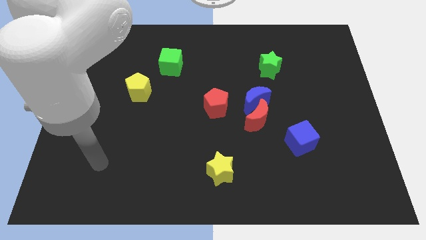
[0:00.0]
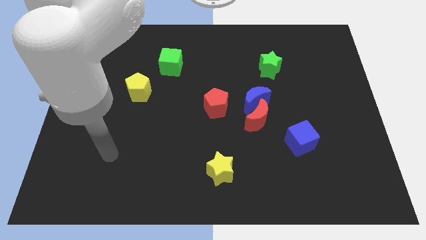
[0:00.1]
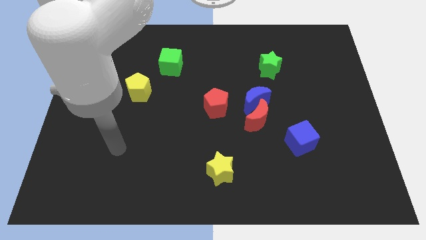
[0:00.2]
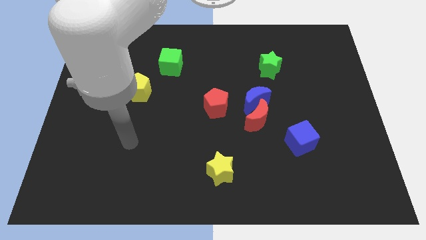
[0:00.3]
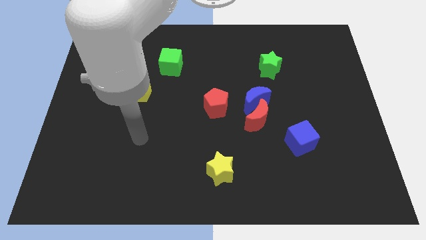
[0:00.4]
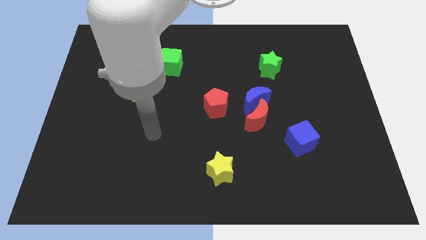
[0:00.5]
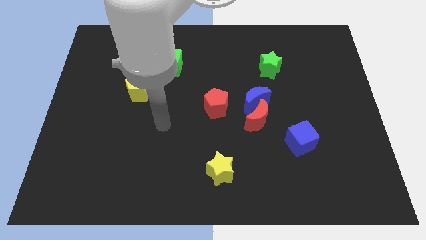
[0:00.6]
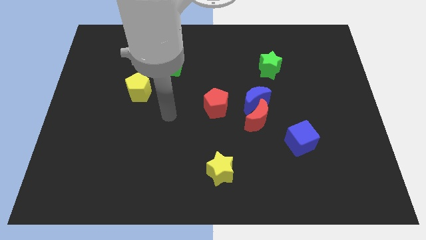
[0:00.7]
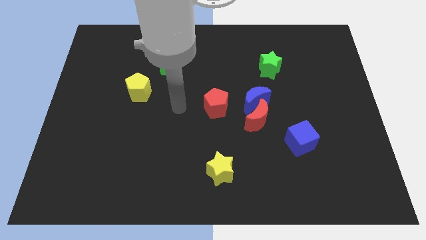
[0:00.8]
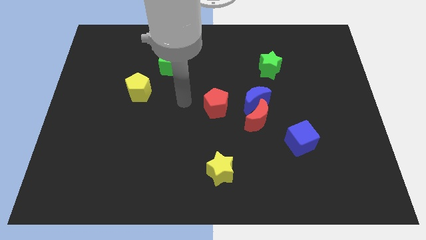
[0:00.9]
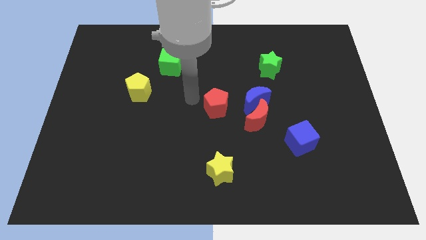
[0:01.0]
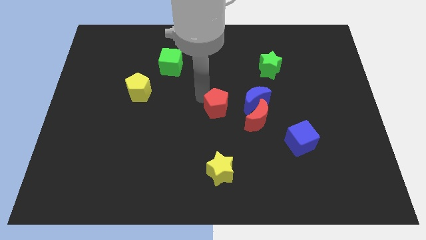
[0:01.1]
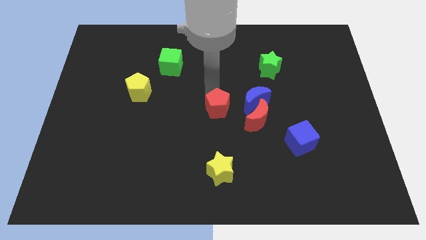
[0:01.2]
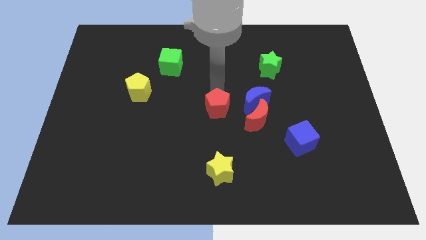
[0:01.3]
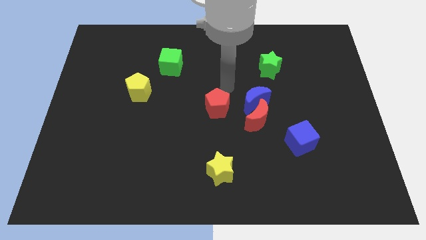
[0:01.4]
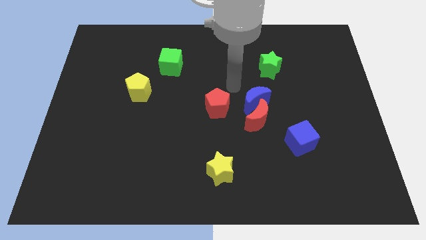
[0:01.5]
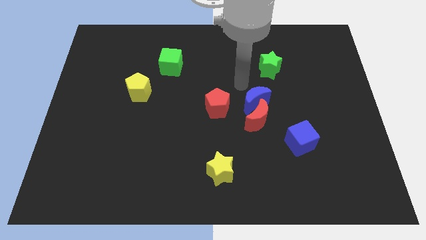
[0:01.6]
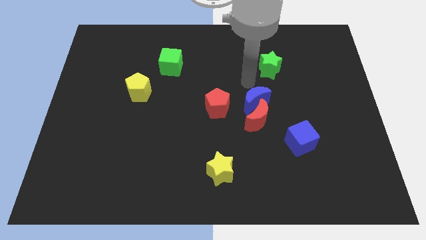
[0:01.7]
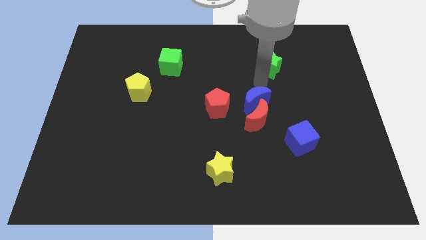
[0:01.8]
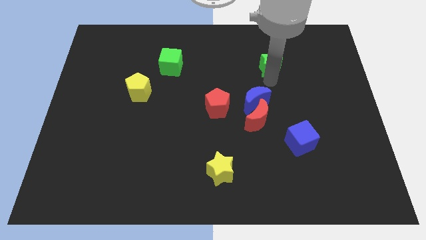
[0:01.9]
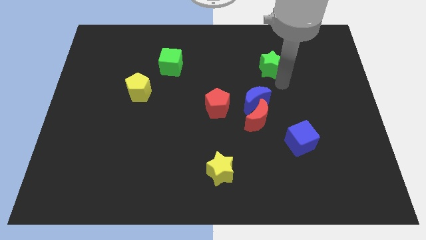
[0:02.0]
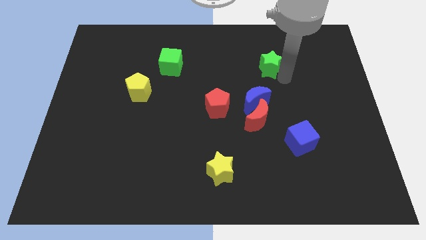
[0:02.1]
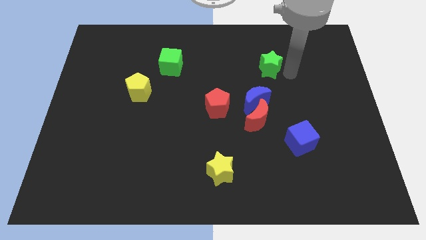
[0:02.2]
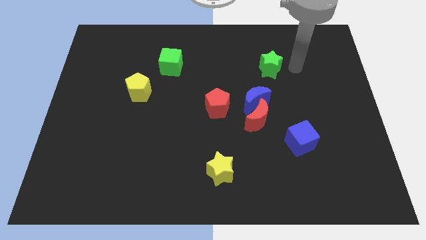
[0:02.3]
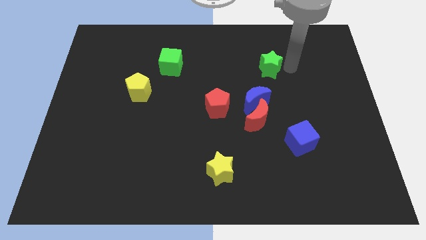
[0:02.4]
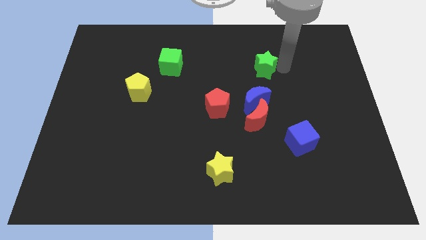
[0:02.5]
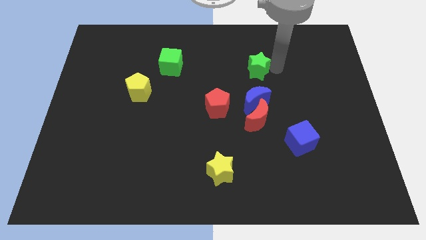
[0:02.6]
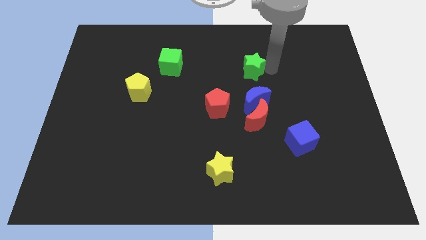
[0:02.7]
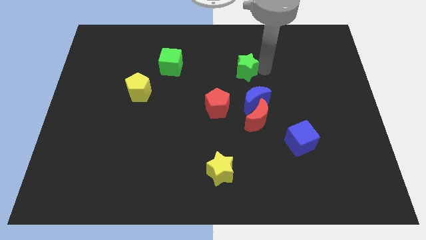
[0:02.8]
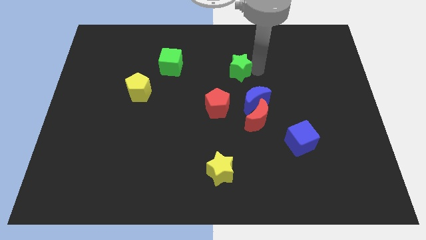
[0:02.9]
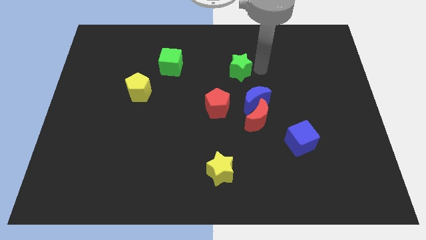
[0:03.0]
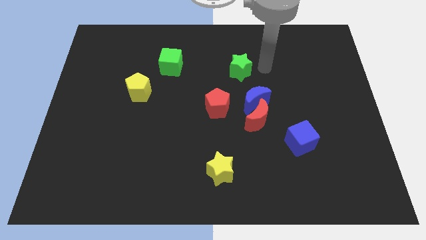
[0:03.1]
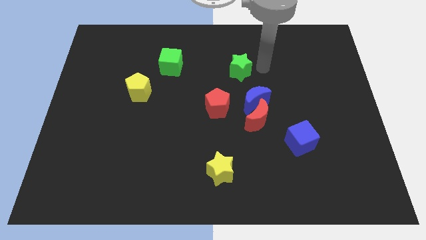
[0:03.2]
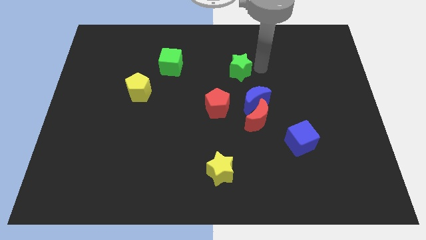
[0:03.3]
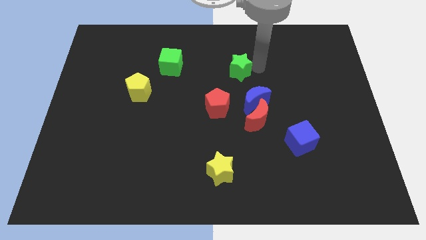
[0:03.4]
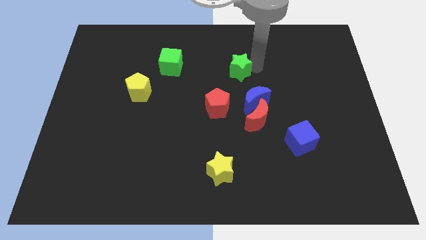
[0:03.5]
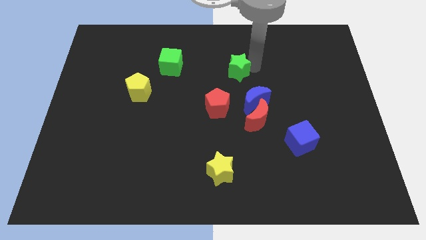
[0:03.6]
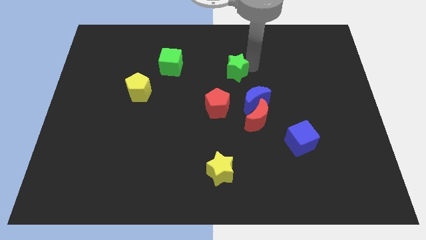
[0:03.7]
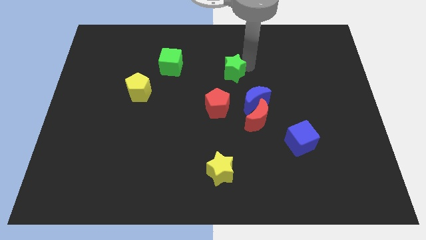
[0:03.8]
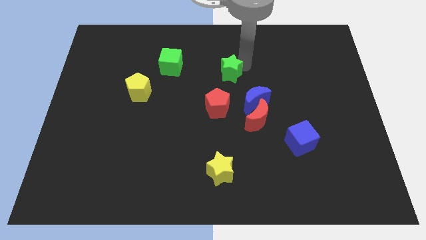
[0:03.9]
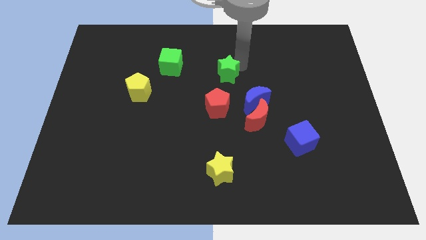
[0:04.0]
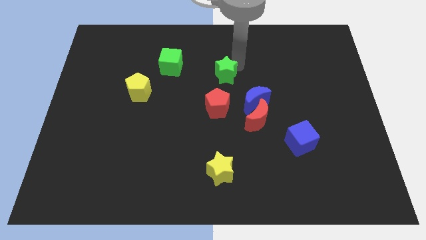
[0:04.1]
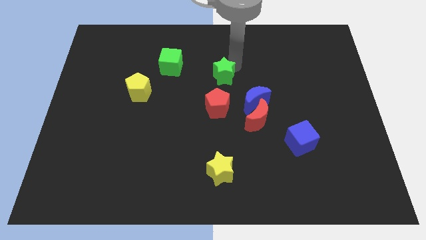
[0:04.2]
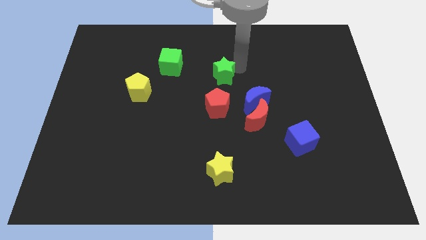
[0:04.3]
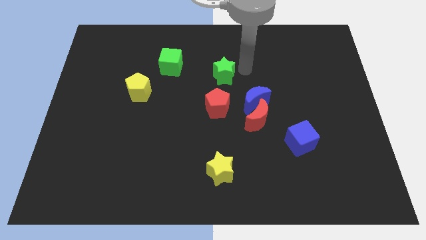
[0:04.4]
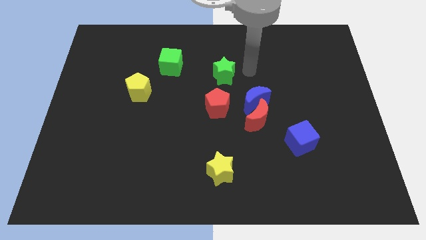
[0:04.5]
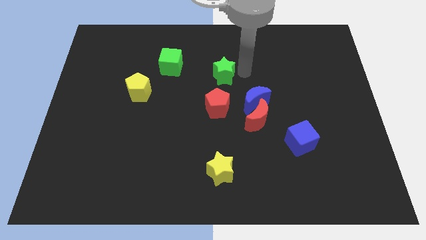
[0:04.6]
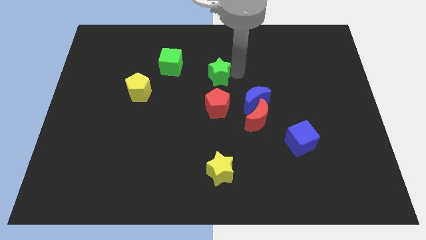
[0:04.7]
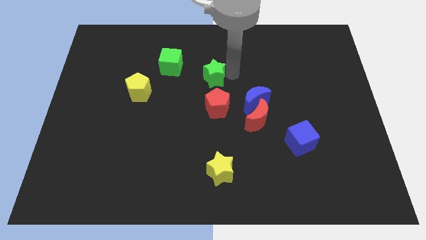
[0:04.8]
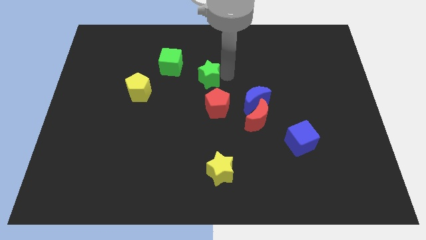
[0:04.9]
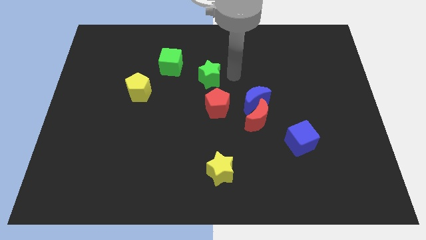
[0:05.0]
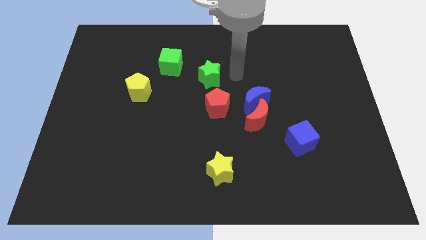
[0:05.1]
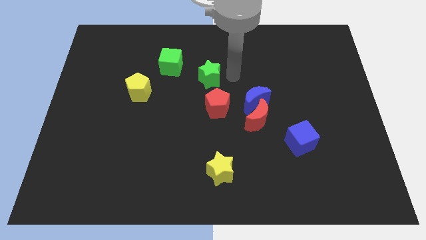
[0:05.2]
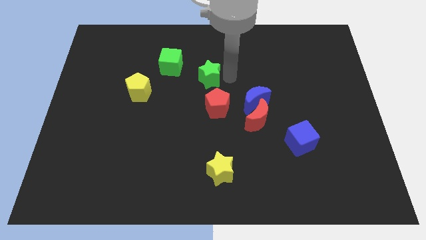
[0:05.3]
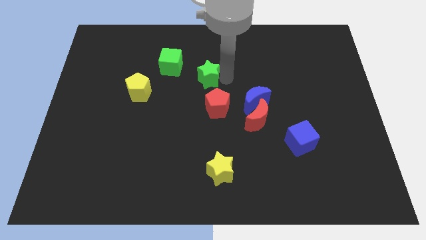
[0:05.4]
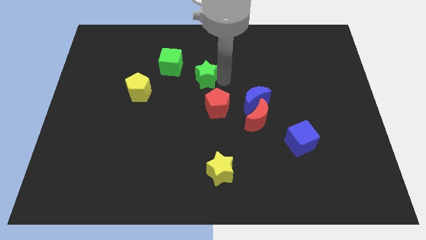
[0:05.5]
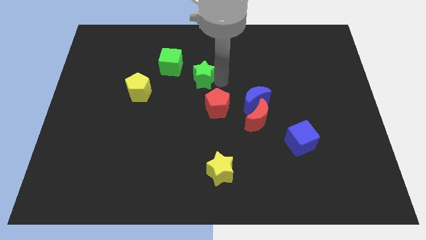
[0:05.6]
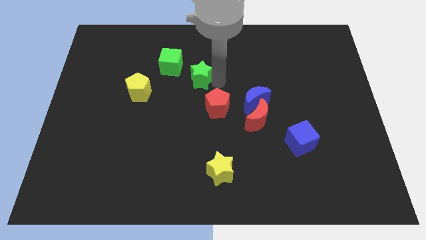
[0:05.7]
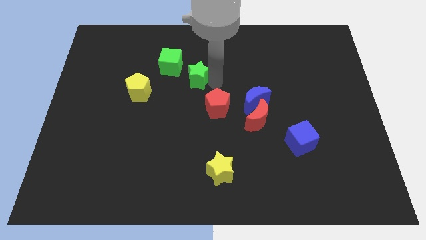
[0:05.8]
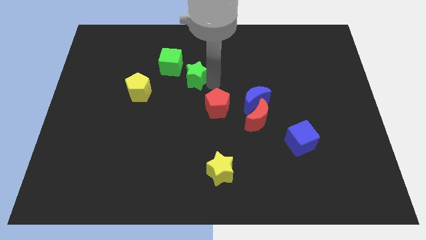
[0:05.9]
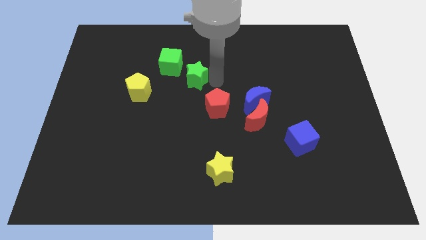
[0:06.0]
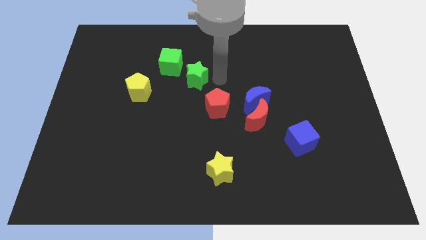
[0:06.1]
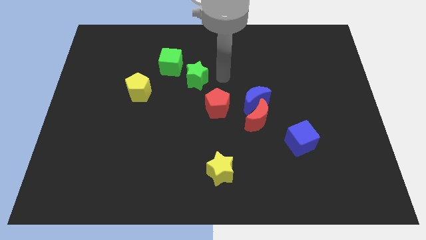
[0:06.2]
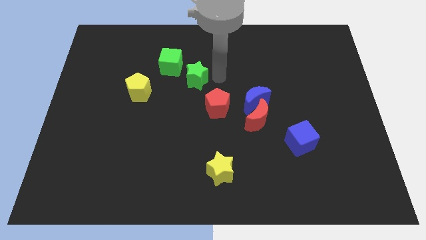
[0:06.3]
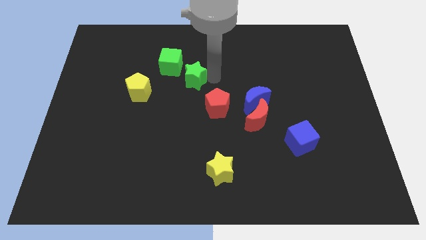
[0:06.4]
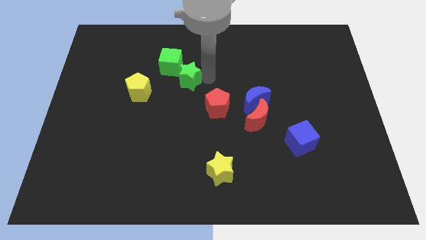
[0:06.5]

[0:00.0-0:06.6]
slide the green star left

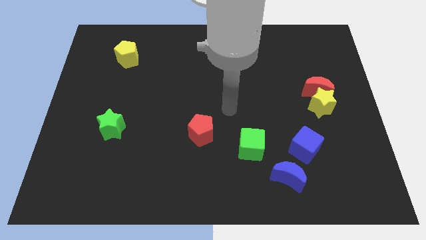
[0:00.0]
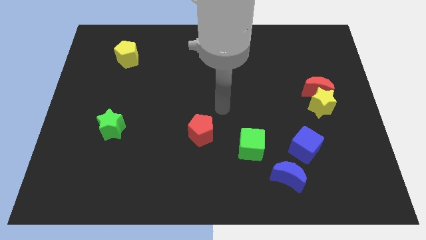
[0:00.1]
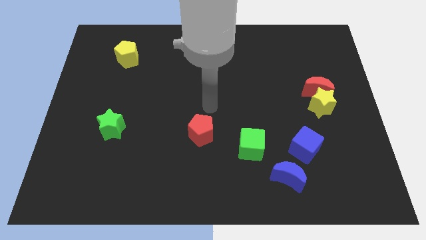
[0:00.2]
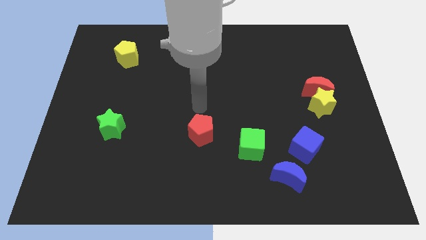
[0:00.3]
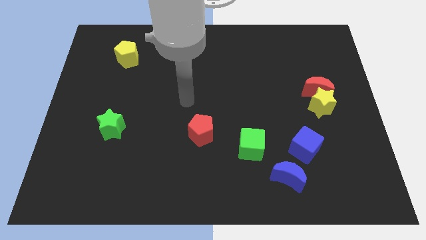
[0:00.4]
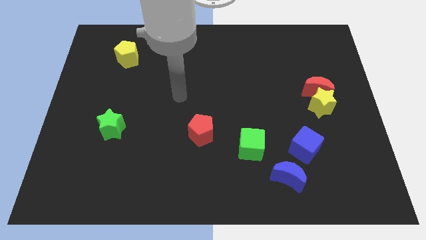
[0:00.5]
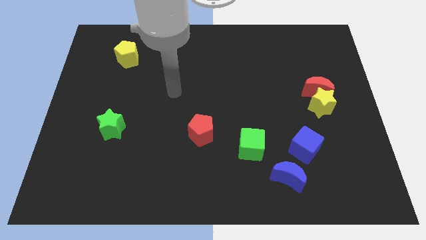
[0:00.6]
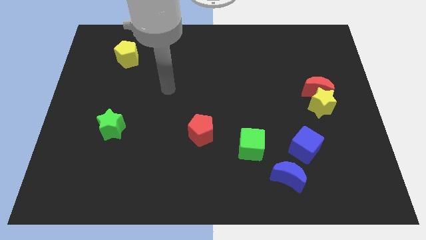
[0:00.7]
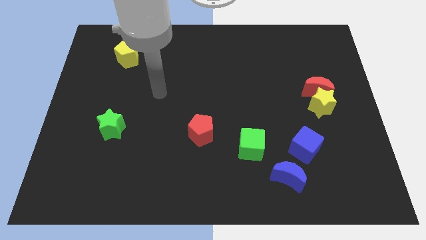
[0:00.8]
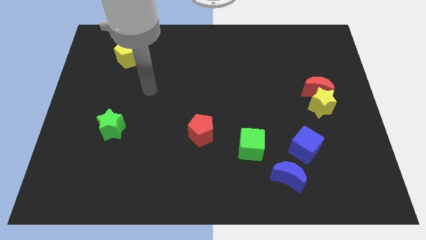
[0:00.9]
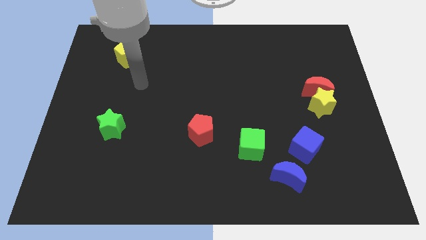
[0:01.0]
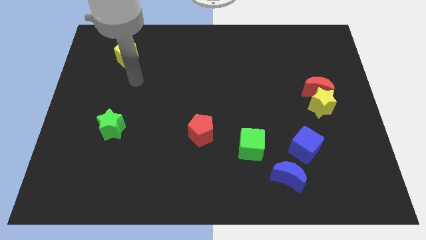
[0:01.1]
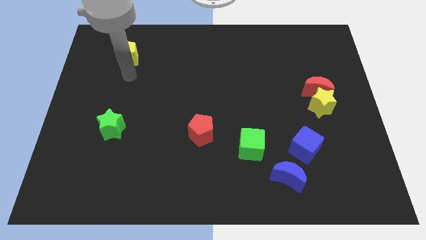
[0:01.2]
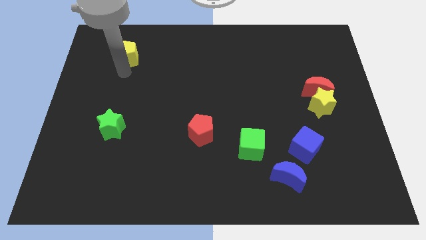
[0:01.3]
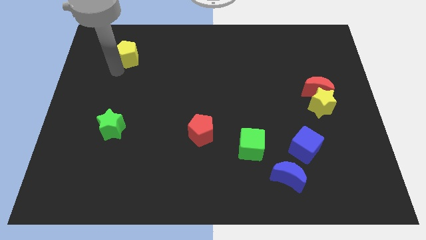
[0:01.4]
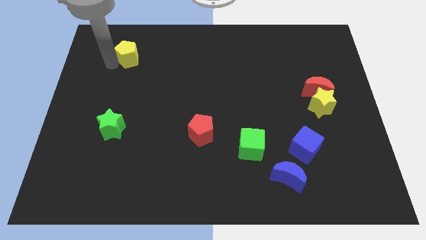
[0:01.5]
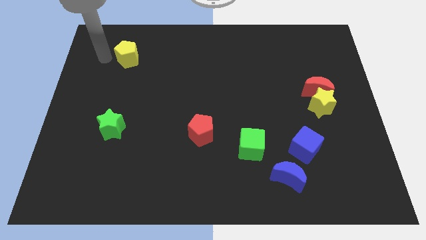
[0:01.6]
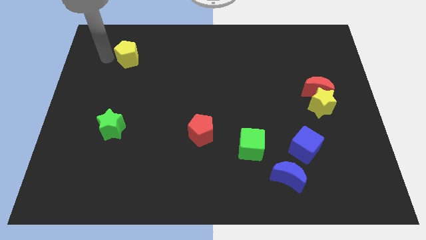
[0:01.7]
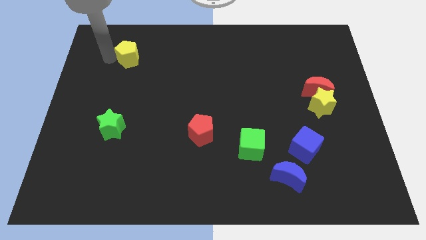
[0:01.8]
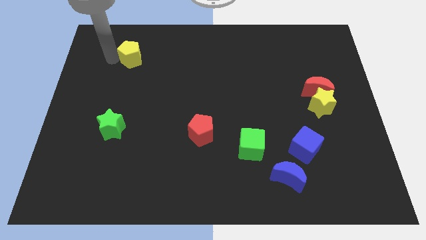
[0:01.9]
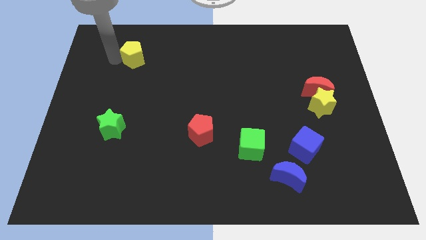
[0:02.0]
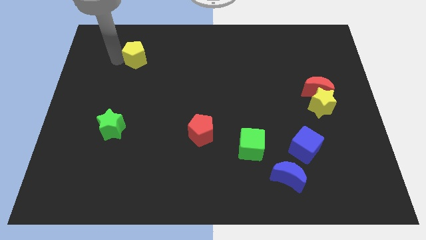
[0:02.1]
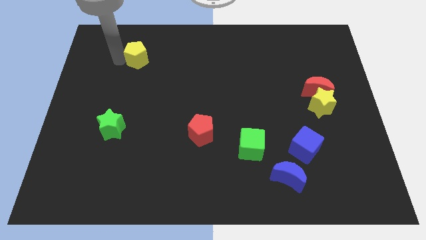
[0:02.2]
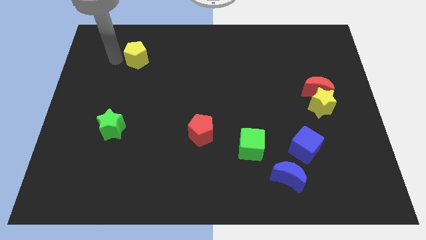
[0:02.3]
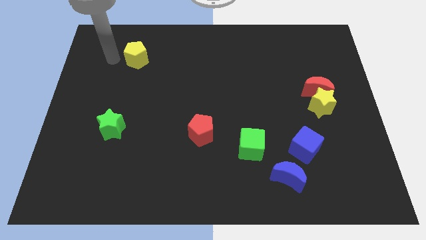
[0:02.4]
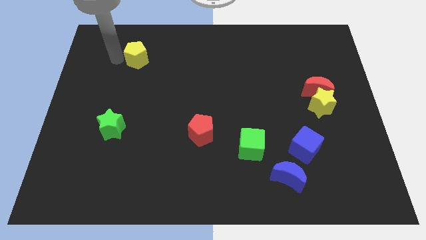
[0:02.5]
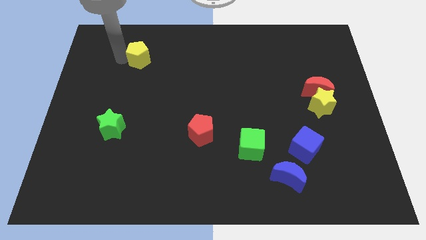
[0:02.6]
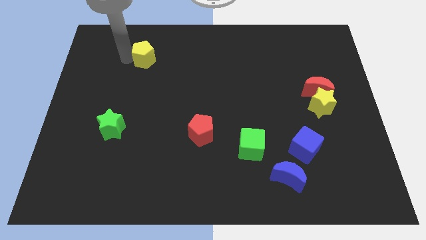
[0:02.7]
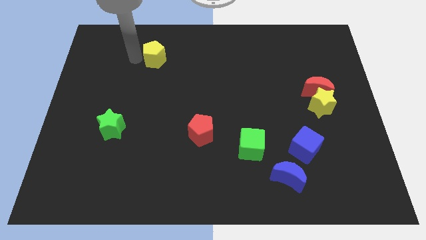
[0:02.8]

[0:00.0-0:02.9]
slide the yellow pentagon slightly to the right
